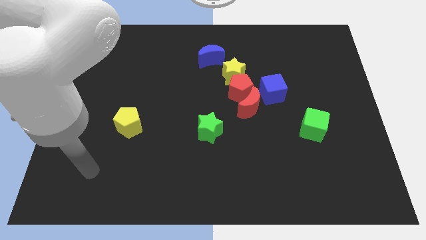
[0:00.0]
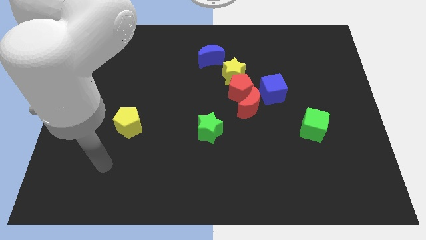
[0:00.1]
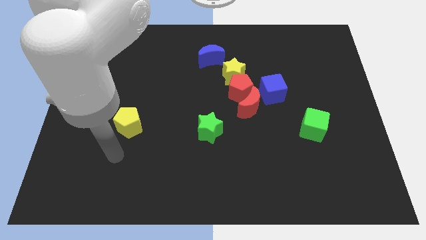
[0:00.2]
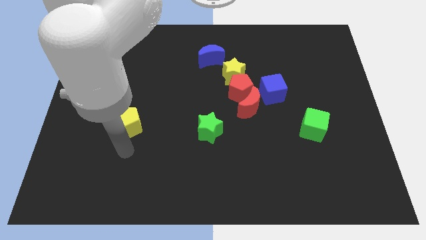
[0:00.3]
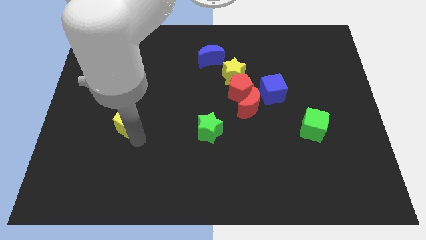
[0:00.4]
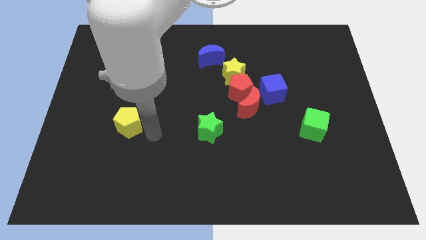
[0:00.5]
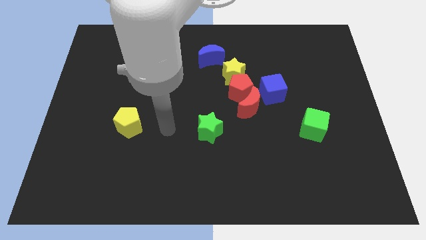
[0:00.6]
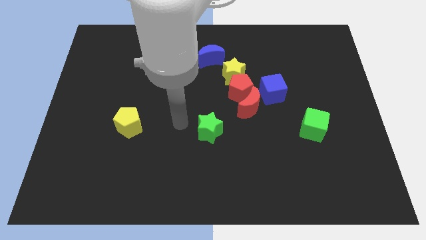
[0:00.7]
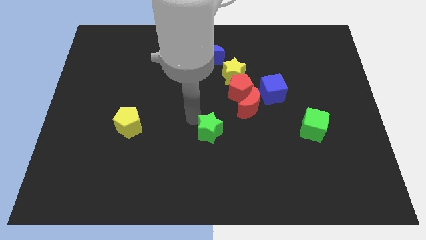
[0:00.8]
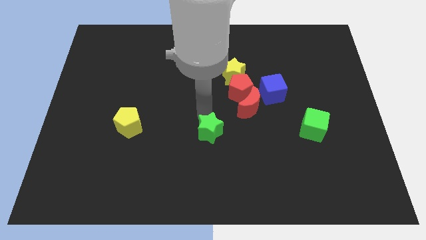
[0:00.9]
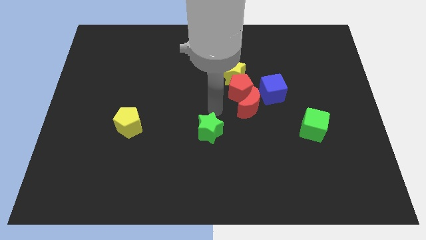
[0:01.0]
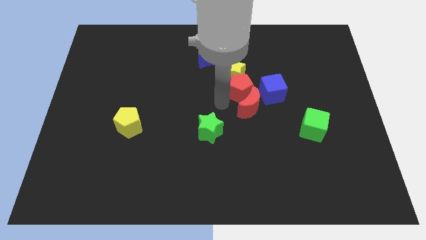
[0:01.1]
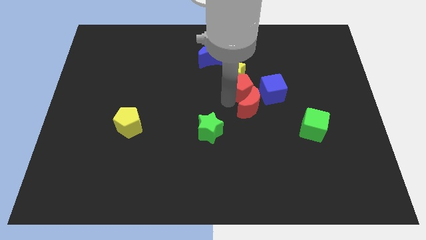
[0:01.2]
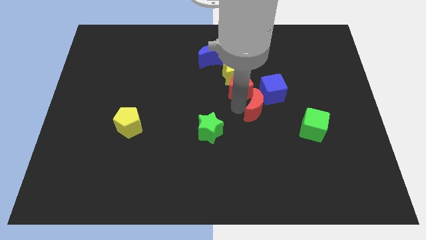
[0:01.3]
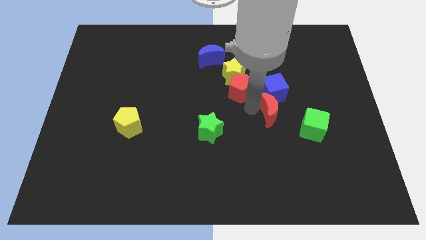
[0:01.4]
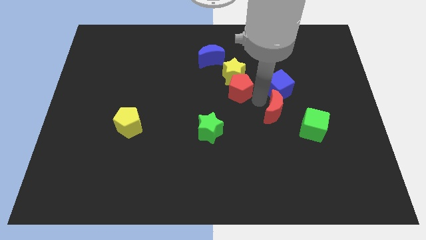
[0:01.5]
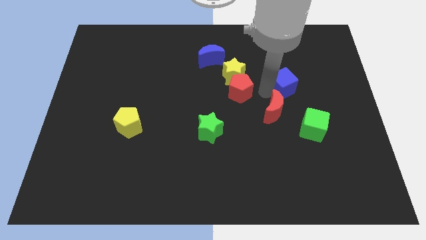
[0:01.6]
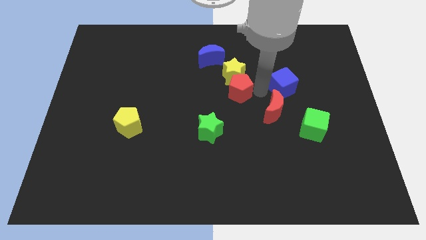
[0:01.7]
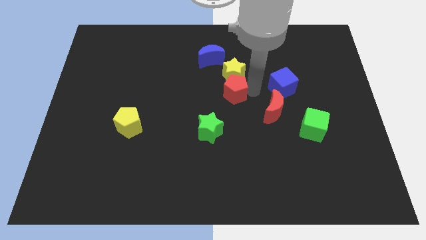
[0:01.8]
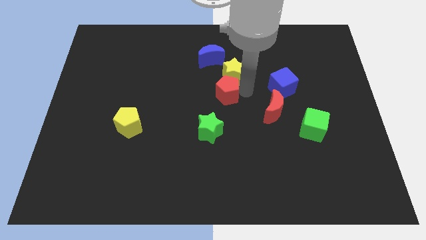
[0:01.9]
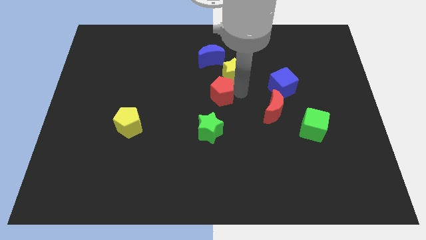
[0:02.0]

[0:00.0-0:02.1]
pull the red pentagon apart from the clump

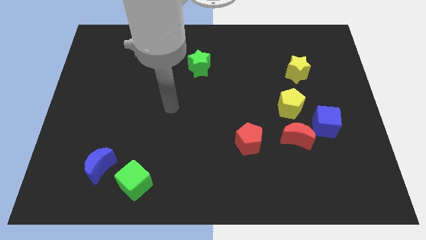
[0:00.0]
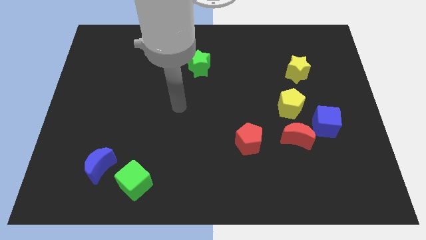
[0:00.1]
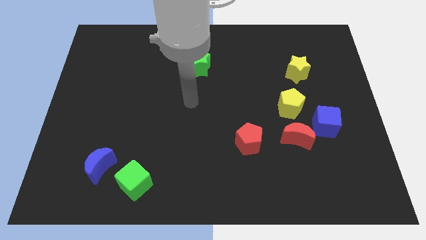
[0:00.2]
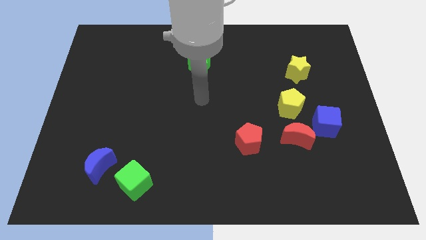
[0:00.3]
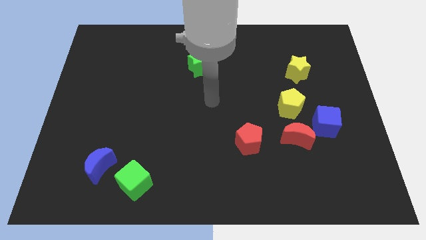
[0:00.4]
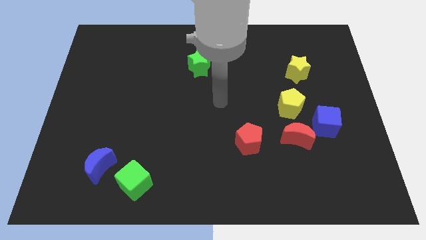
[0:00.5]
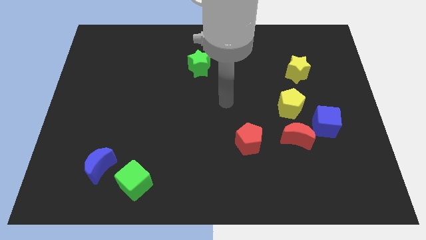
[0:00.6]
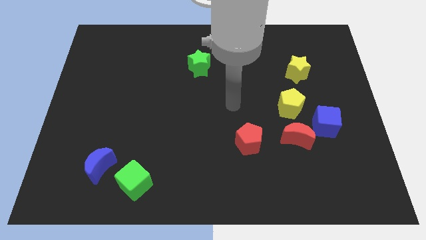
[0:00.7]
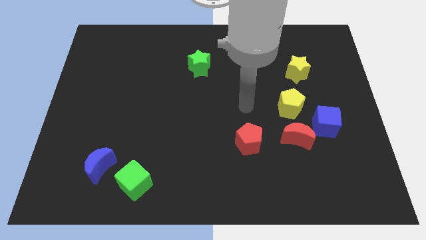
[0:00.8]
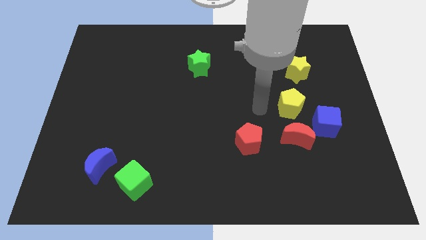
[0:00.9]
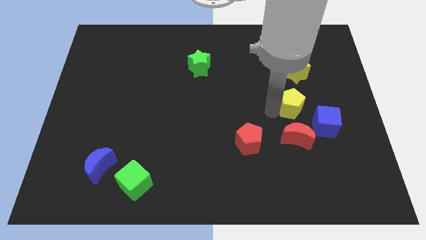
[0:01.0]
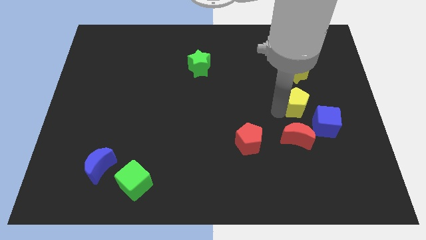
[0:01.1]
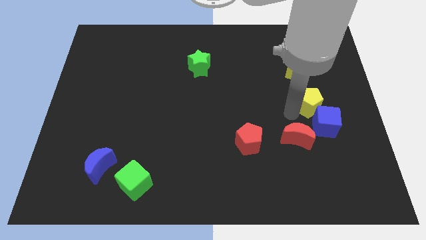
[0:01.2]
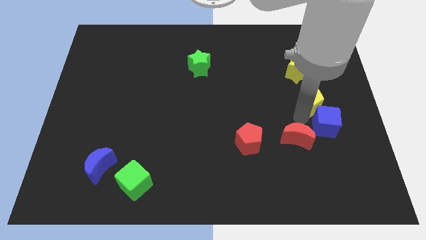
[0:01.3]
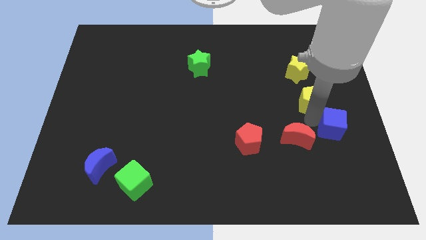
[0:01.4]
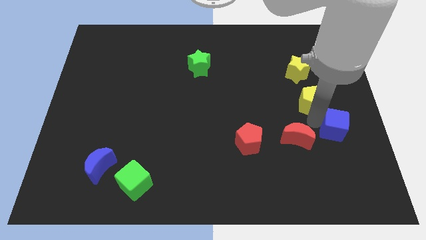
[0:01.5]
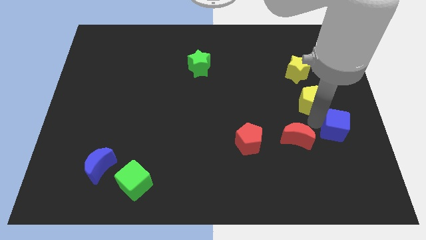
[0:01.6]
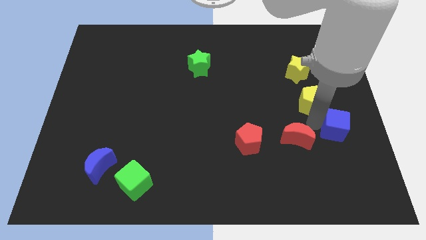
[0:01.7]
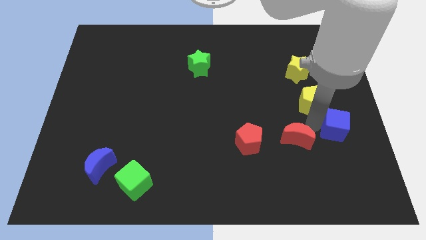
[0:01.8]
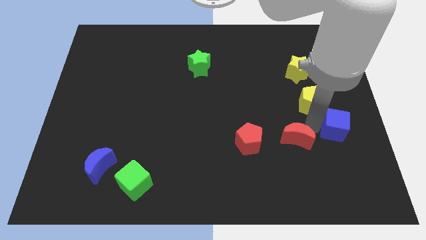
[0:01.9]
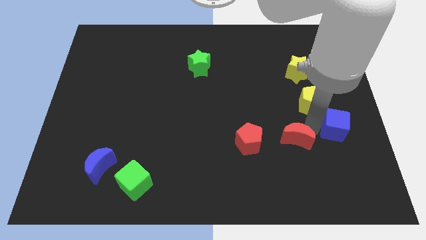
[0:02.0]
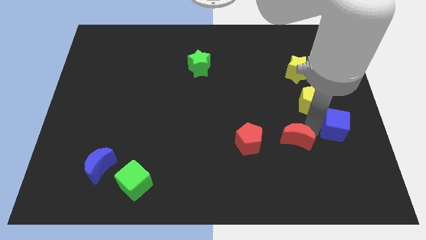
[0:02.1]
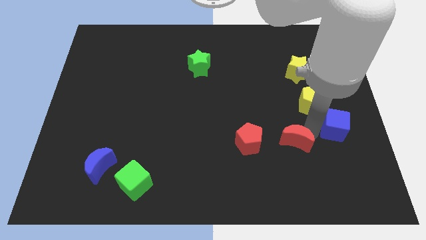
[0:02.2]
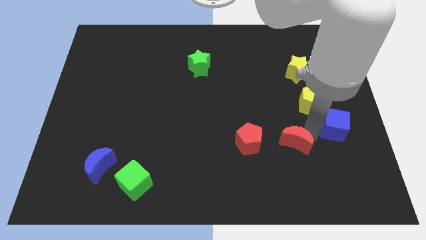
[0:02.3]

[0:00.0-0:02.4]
pull the red moon apart from the blue cube and yellow pentagon

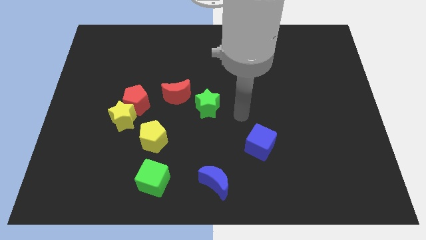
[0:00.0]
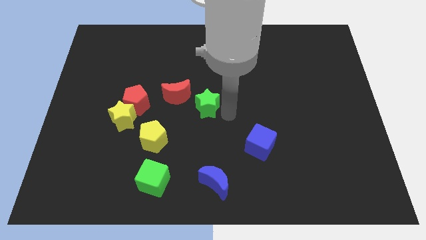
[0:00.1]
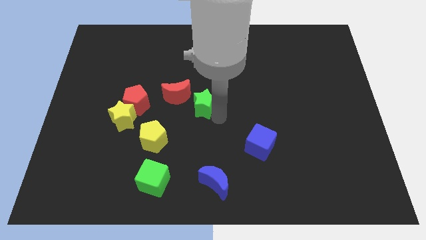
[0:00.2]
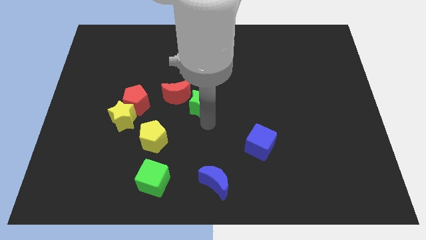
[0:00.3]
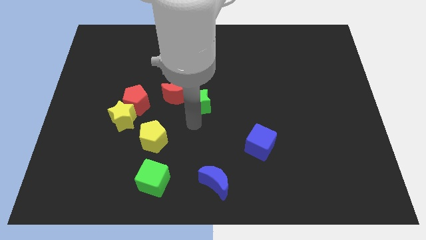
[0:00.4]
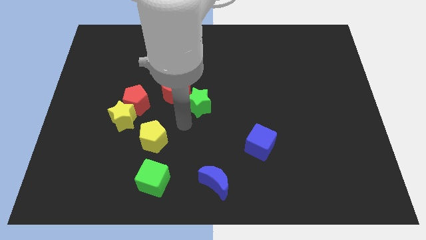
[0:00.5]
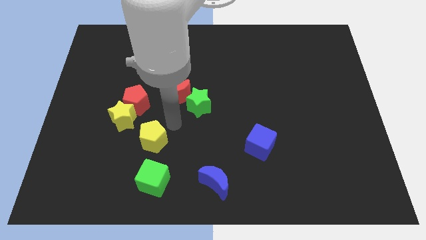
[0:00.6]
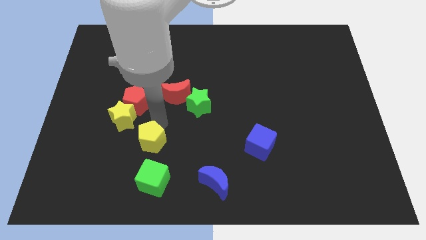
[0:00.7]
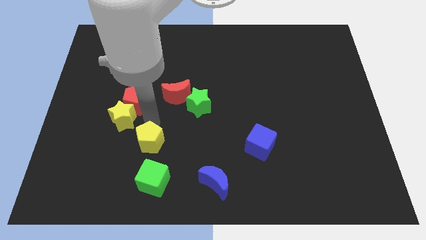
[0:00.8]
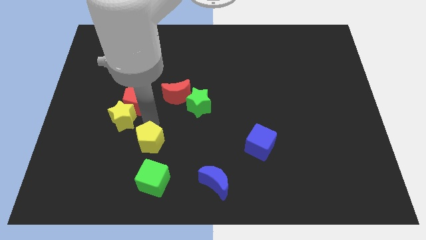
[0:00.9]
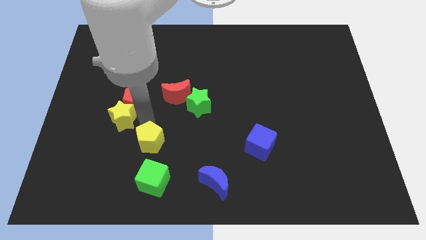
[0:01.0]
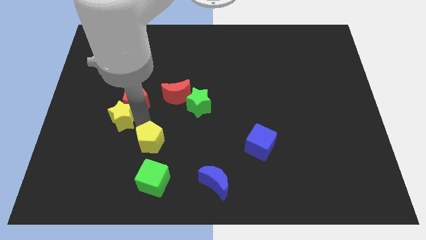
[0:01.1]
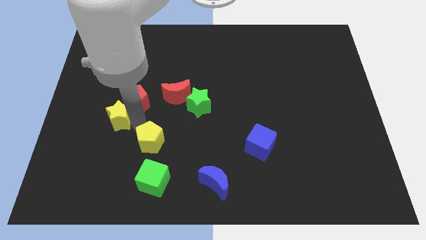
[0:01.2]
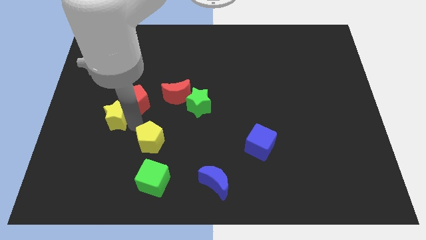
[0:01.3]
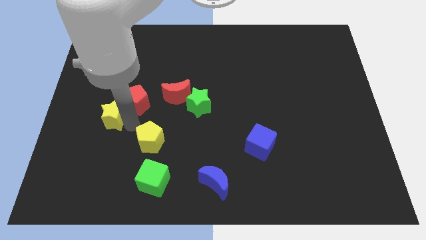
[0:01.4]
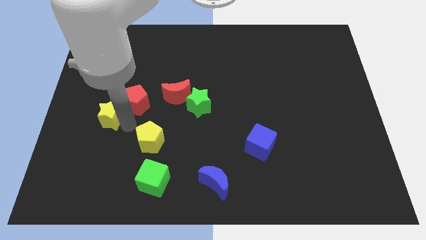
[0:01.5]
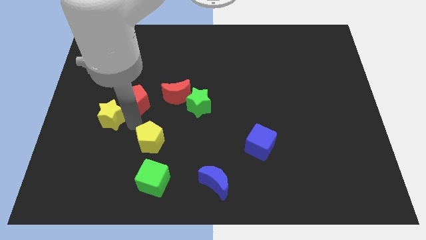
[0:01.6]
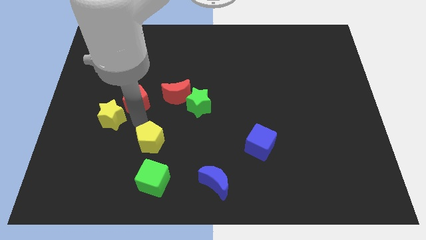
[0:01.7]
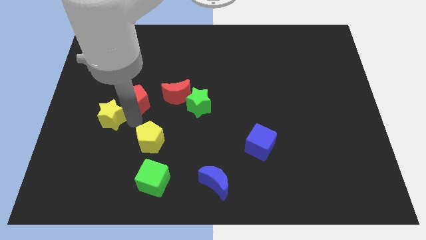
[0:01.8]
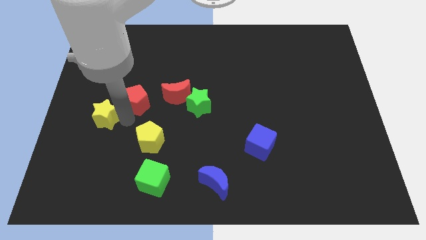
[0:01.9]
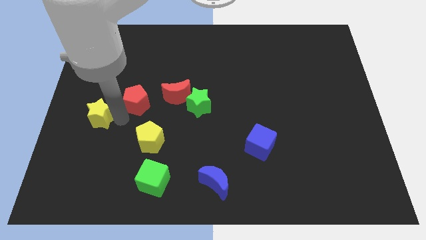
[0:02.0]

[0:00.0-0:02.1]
move the yellow star away from the red pentagon and yellow pentagon

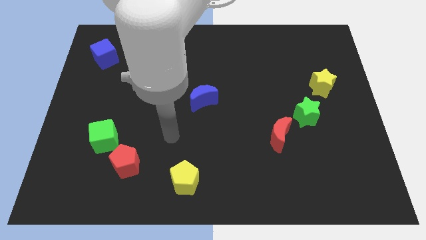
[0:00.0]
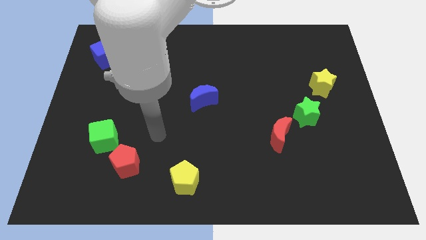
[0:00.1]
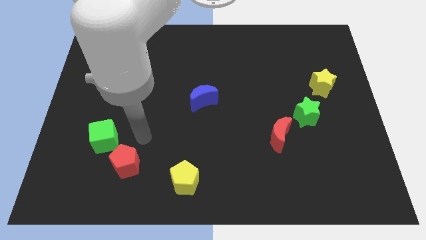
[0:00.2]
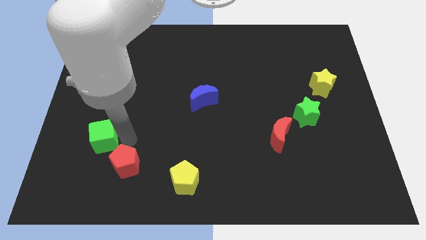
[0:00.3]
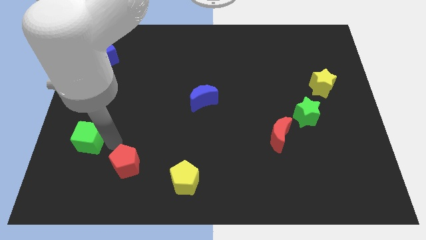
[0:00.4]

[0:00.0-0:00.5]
separate the red pentagon from the green cube

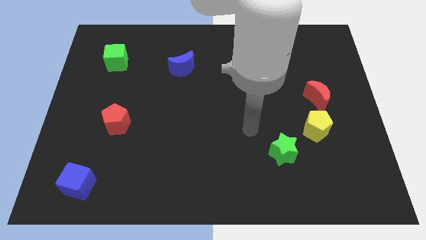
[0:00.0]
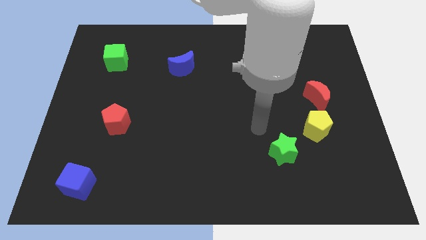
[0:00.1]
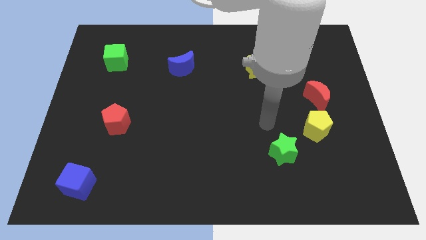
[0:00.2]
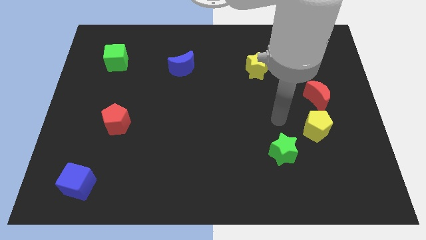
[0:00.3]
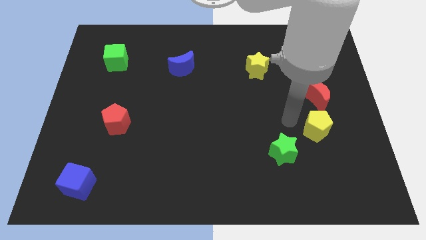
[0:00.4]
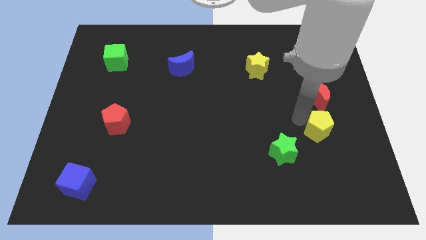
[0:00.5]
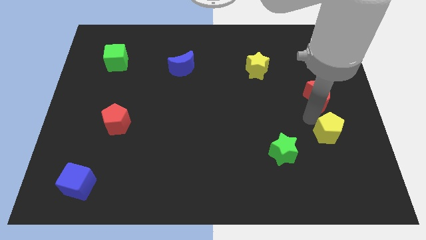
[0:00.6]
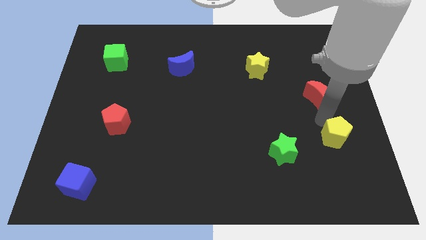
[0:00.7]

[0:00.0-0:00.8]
pull the red moon apart from the yellow pentagon

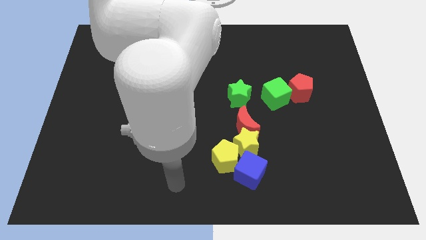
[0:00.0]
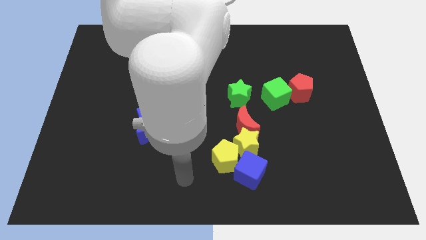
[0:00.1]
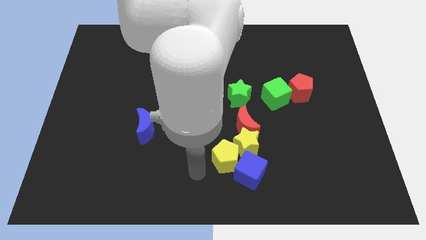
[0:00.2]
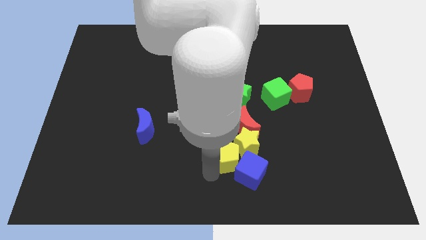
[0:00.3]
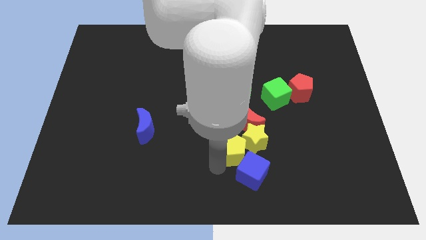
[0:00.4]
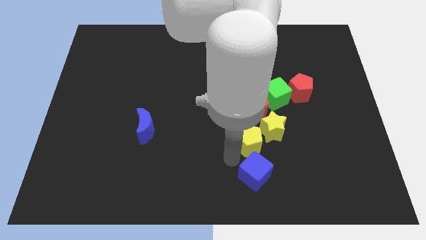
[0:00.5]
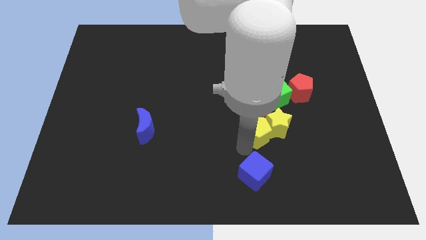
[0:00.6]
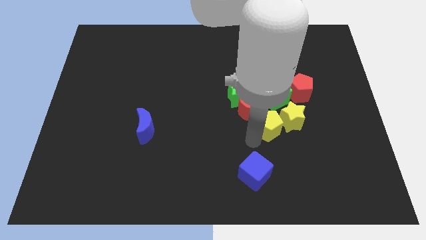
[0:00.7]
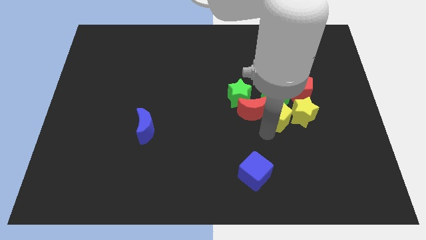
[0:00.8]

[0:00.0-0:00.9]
move the yellow star away from the group

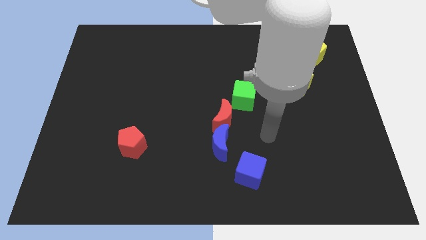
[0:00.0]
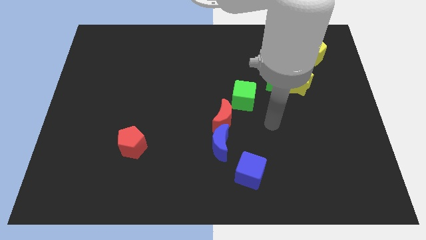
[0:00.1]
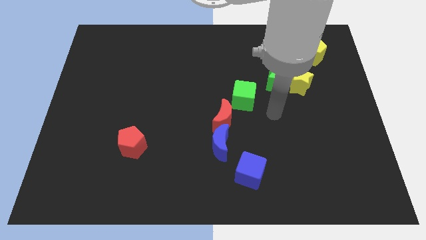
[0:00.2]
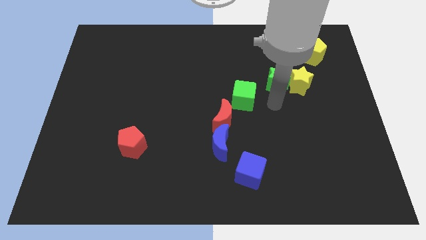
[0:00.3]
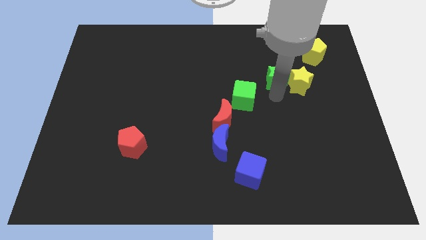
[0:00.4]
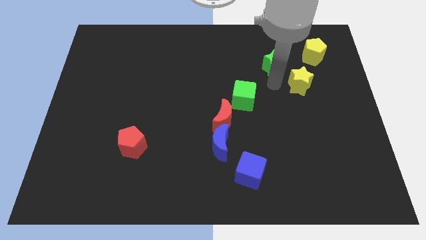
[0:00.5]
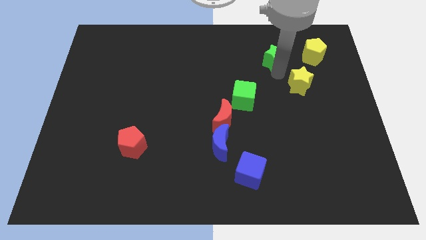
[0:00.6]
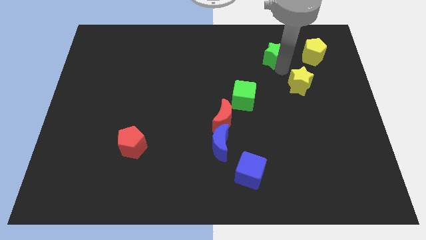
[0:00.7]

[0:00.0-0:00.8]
separate the yellow star from the green star
